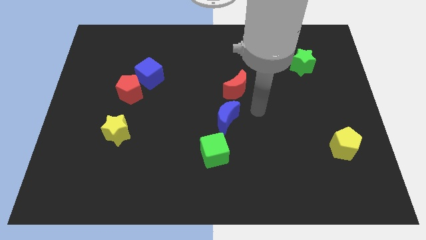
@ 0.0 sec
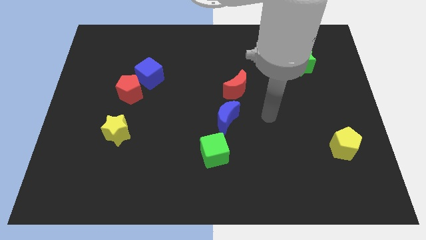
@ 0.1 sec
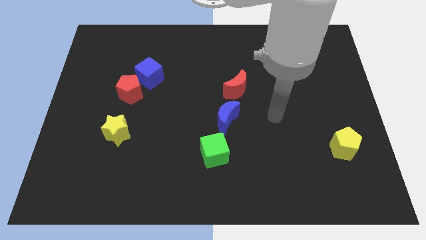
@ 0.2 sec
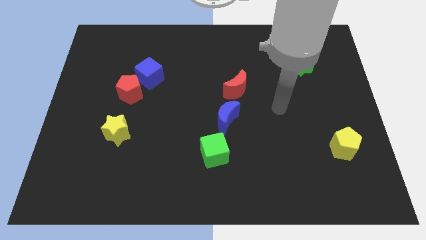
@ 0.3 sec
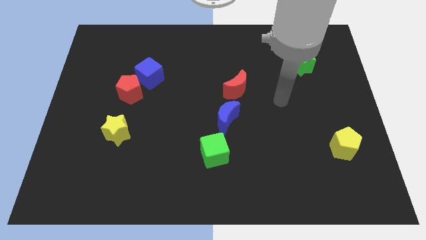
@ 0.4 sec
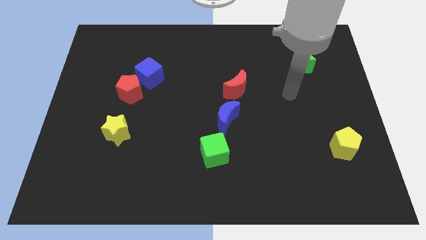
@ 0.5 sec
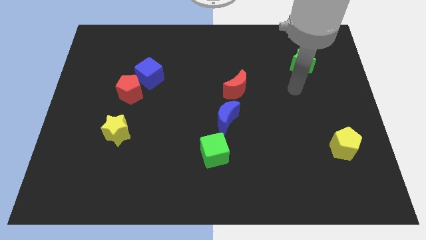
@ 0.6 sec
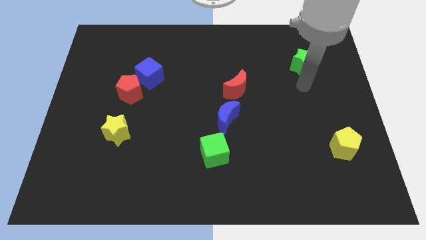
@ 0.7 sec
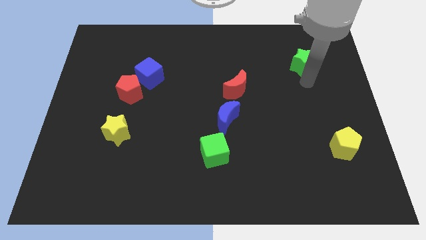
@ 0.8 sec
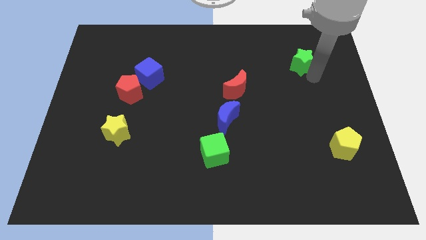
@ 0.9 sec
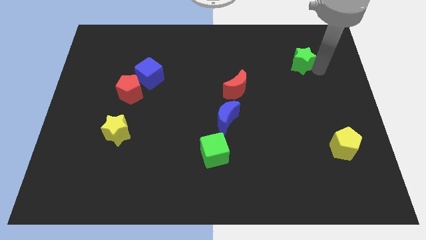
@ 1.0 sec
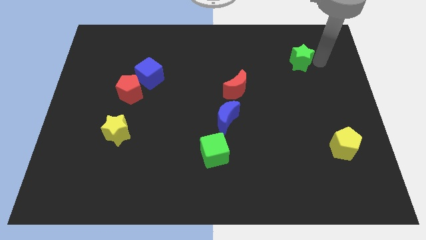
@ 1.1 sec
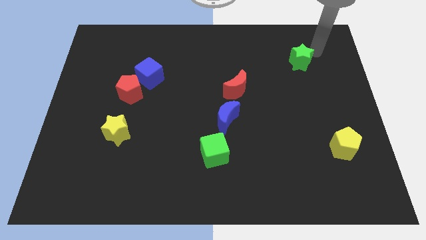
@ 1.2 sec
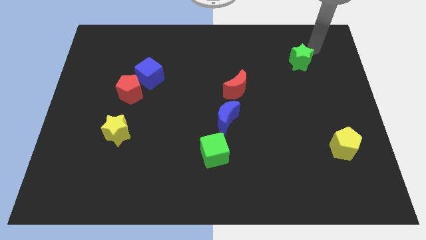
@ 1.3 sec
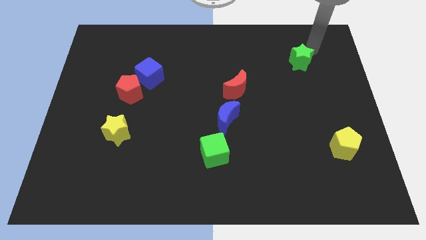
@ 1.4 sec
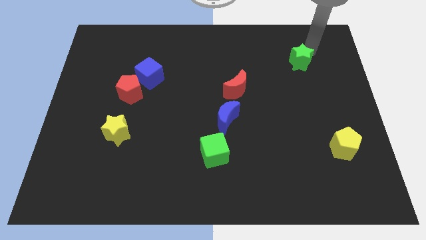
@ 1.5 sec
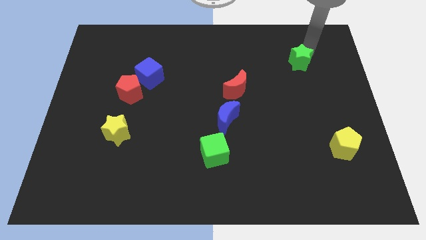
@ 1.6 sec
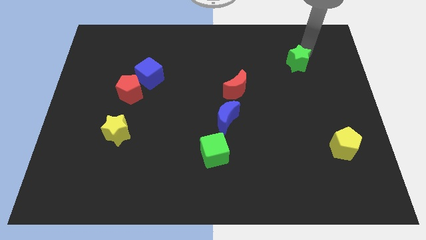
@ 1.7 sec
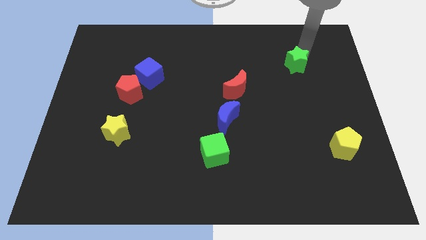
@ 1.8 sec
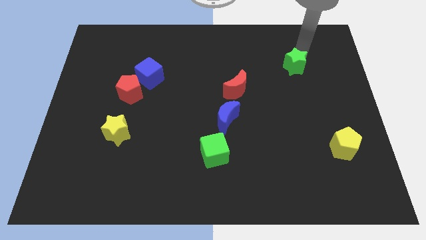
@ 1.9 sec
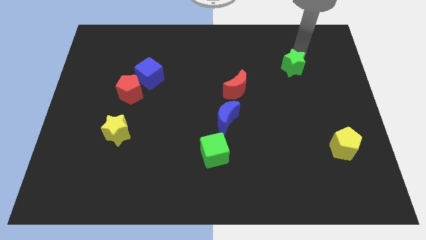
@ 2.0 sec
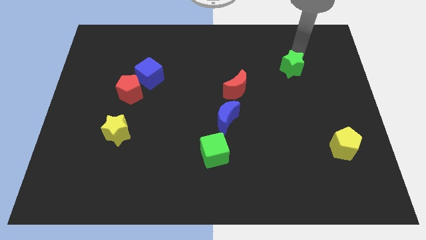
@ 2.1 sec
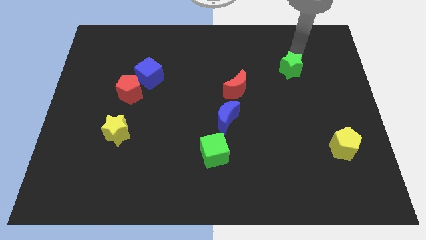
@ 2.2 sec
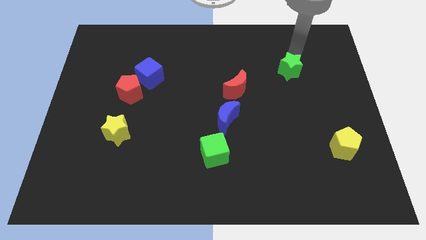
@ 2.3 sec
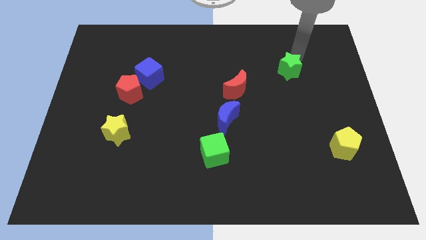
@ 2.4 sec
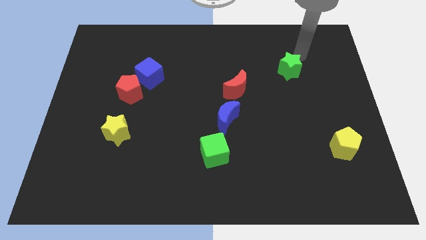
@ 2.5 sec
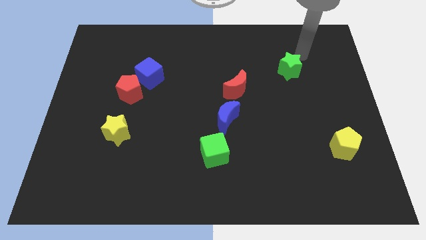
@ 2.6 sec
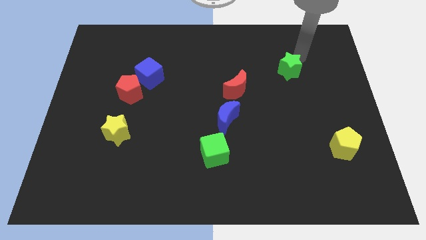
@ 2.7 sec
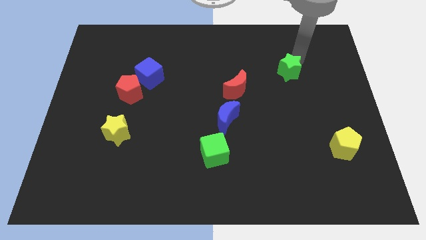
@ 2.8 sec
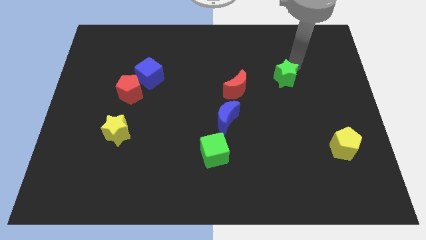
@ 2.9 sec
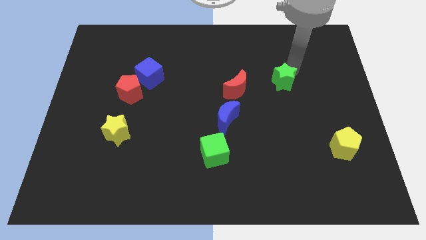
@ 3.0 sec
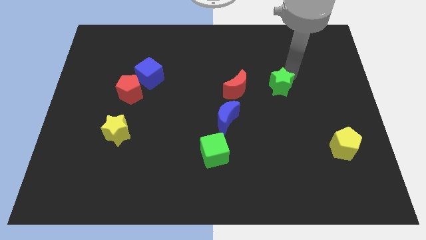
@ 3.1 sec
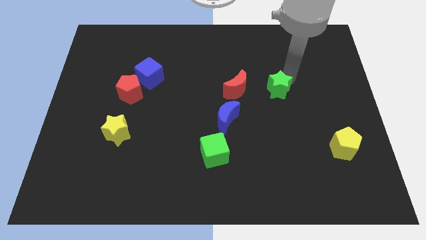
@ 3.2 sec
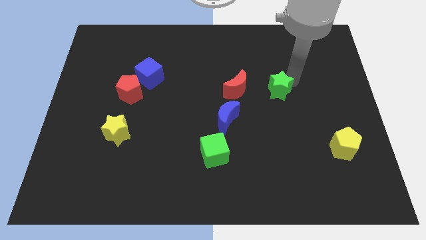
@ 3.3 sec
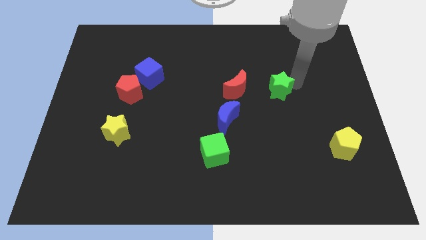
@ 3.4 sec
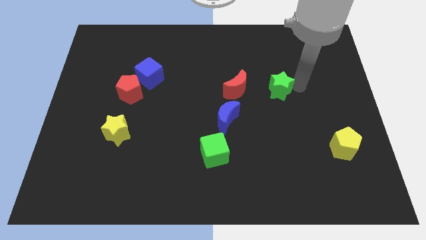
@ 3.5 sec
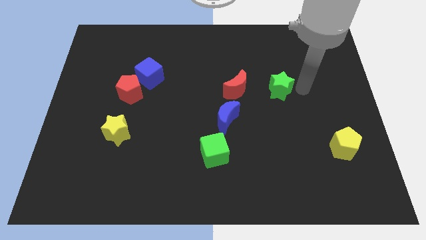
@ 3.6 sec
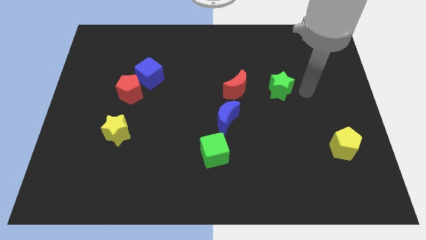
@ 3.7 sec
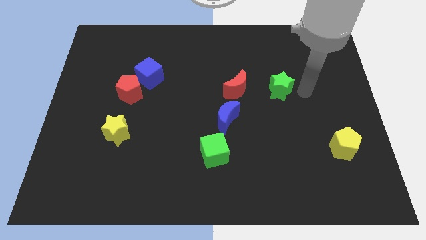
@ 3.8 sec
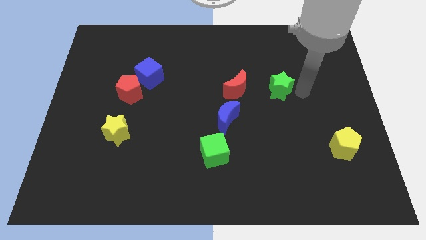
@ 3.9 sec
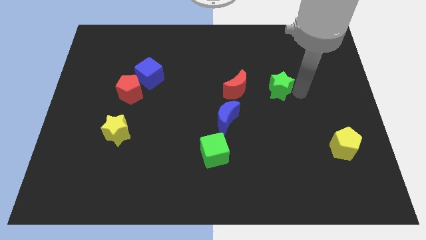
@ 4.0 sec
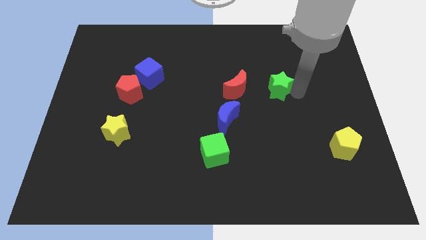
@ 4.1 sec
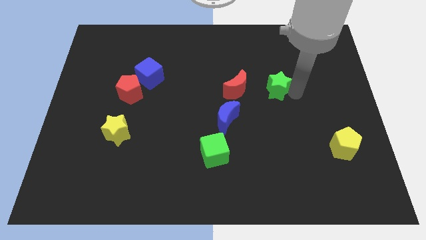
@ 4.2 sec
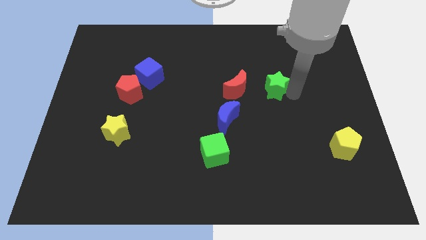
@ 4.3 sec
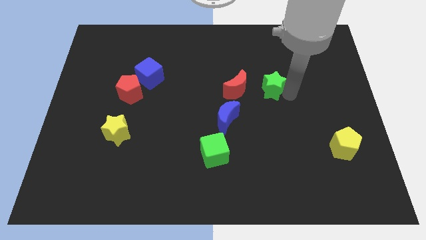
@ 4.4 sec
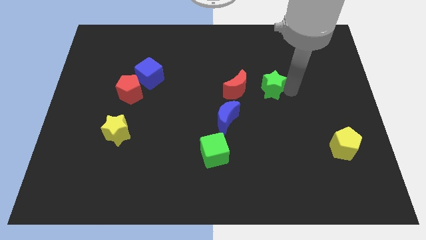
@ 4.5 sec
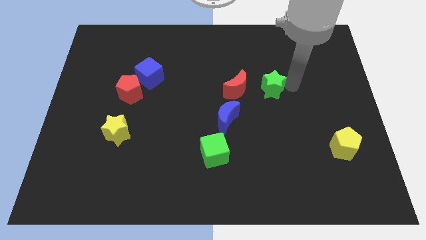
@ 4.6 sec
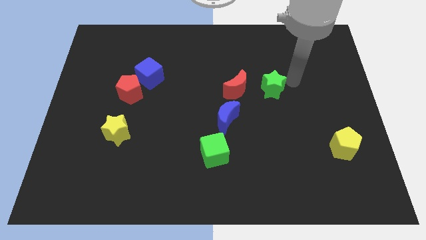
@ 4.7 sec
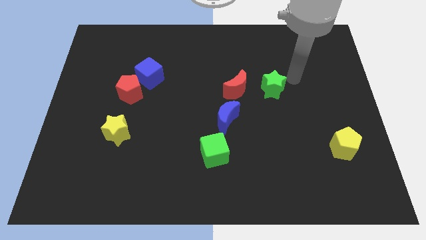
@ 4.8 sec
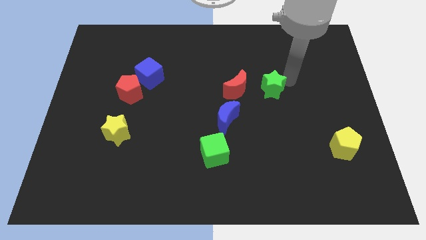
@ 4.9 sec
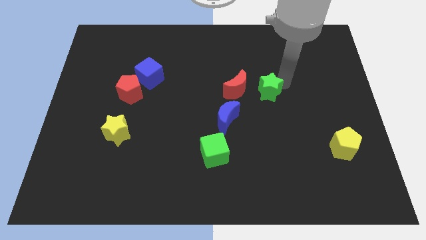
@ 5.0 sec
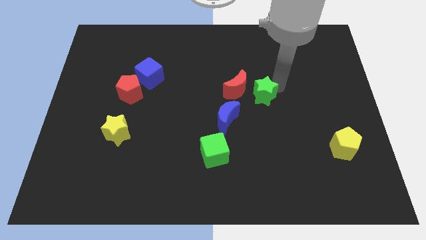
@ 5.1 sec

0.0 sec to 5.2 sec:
put the green star diagonally up and to the right of the blue moon

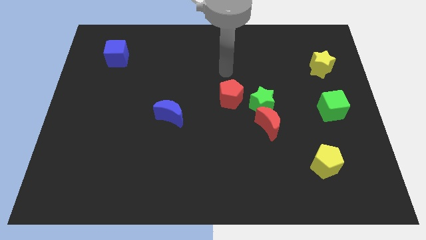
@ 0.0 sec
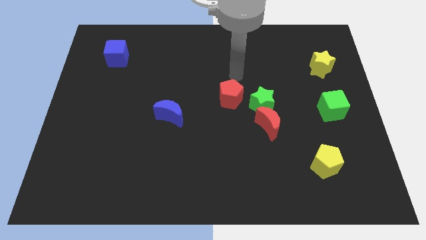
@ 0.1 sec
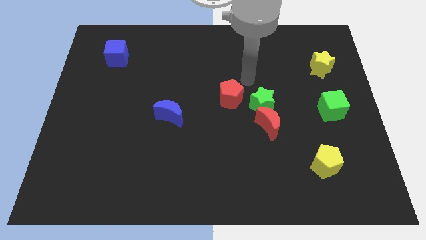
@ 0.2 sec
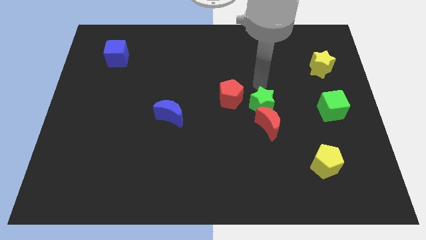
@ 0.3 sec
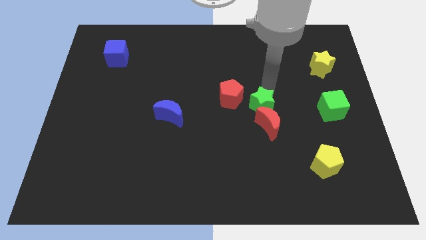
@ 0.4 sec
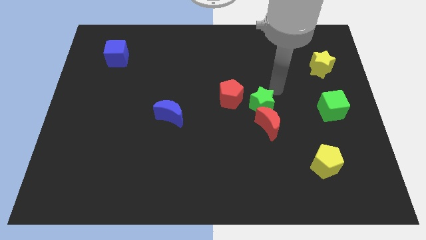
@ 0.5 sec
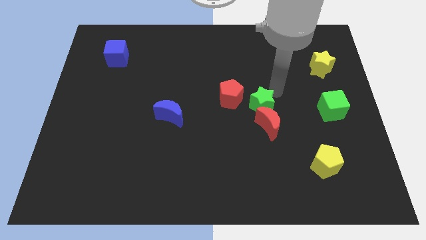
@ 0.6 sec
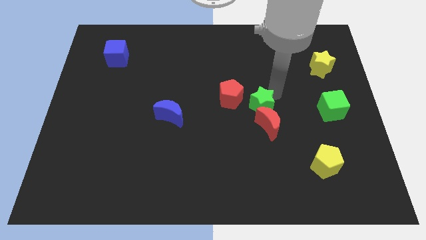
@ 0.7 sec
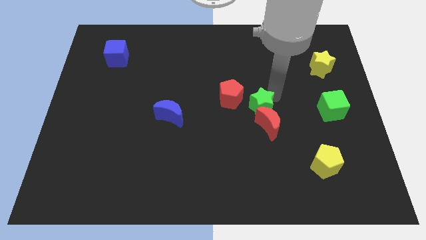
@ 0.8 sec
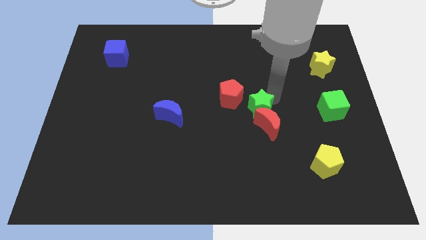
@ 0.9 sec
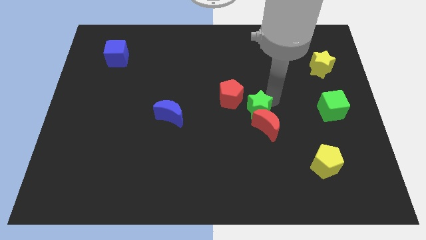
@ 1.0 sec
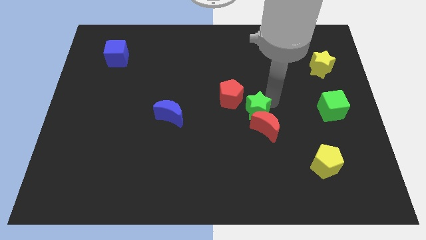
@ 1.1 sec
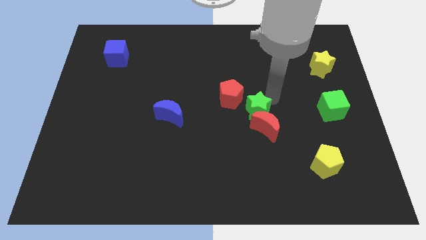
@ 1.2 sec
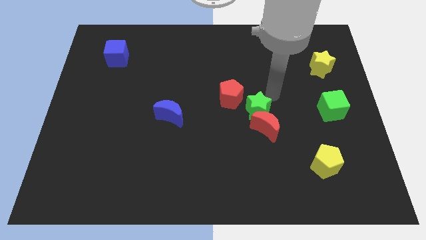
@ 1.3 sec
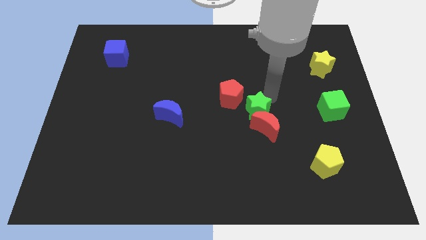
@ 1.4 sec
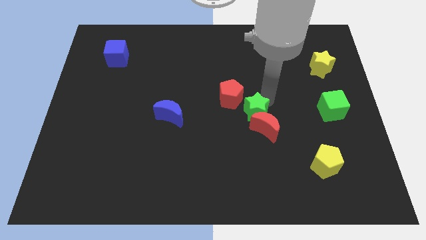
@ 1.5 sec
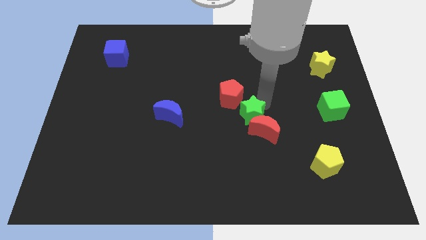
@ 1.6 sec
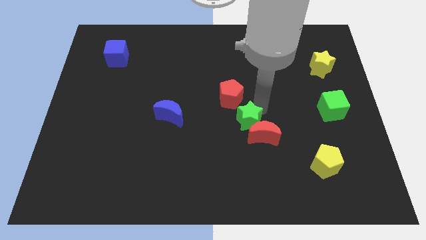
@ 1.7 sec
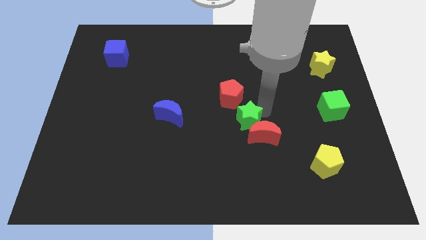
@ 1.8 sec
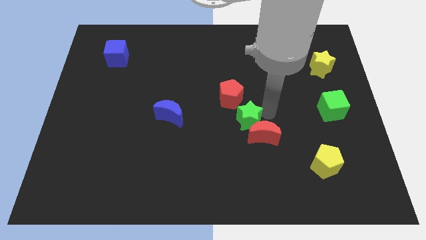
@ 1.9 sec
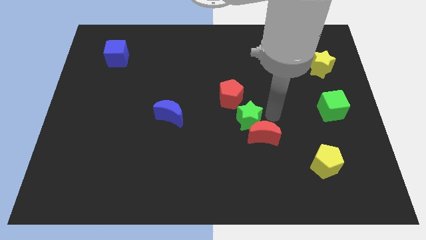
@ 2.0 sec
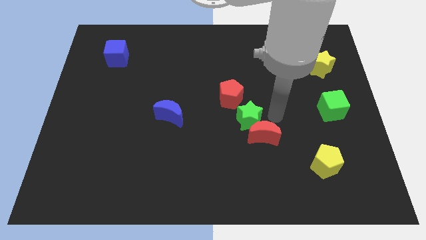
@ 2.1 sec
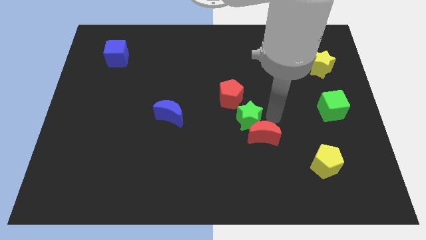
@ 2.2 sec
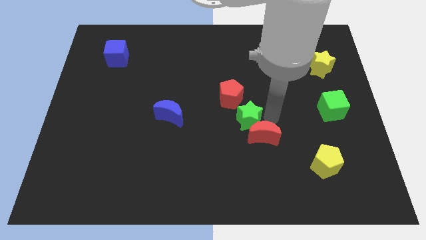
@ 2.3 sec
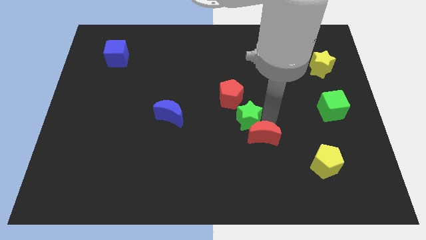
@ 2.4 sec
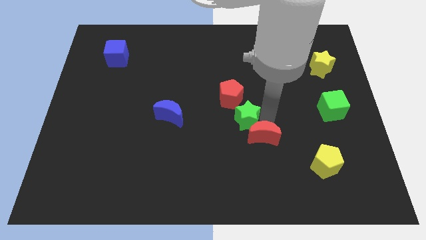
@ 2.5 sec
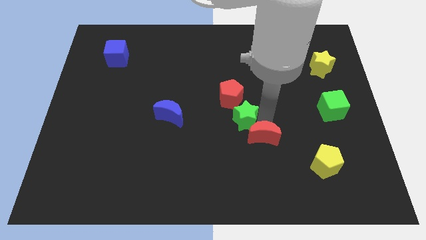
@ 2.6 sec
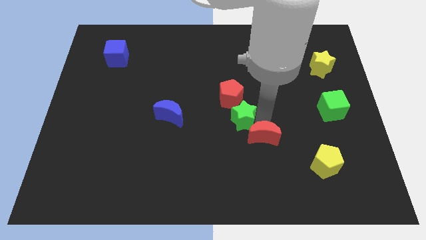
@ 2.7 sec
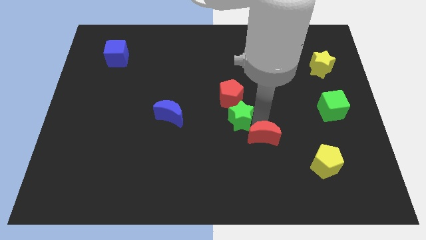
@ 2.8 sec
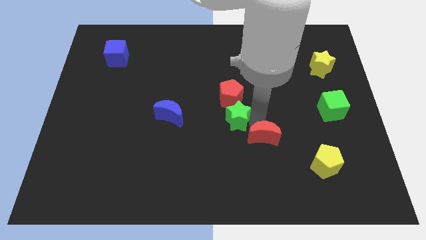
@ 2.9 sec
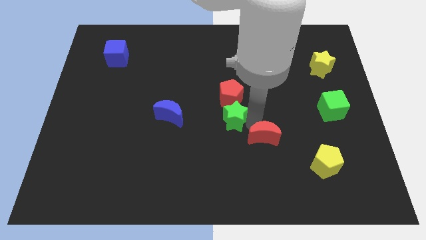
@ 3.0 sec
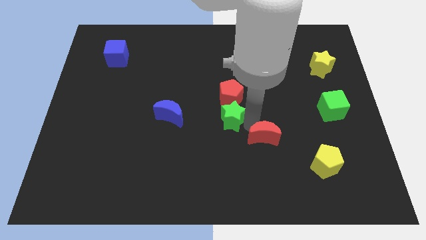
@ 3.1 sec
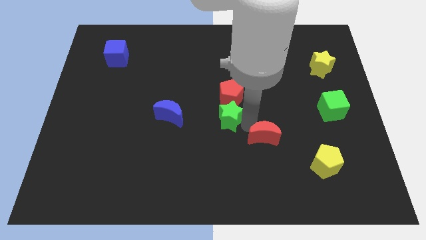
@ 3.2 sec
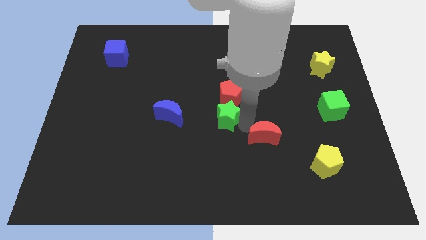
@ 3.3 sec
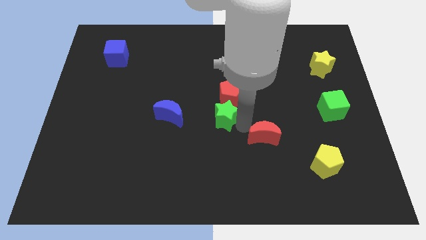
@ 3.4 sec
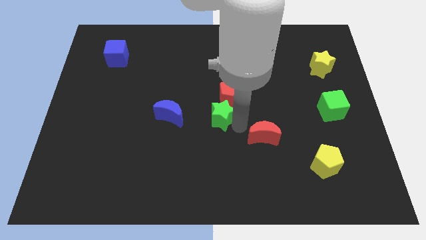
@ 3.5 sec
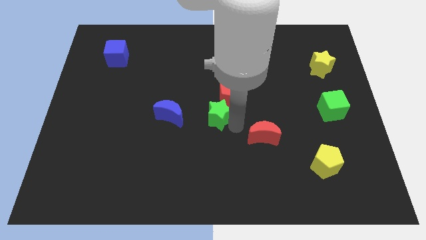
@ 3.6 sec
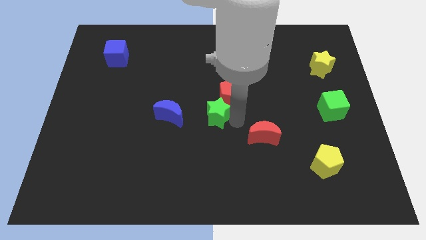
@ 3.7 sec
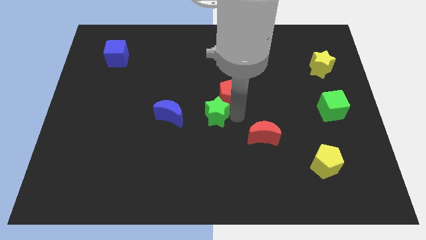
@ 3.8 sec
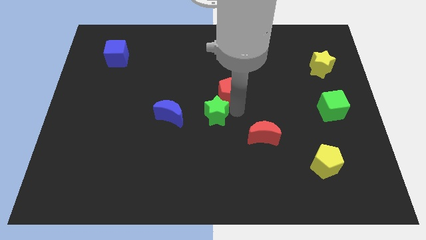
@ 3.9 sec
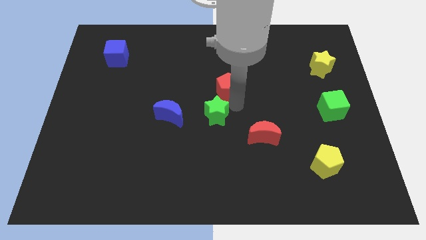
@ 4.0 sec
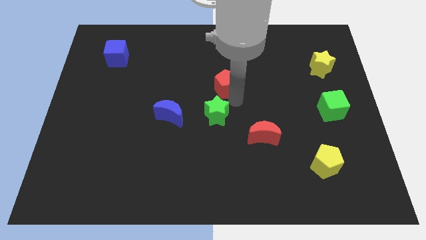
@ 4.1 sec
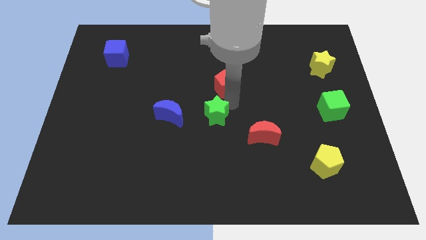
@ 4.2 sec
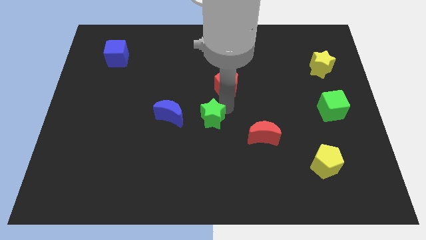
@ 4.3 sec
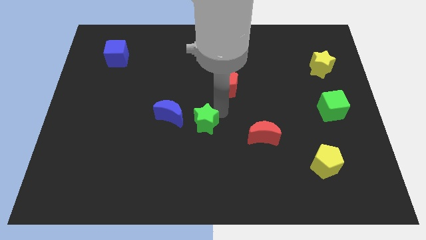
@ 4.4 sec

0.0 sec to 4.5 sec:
slide the green star to the bottom right of the blue moon
